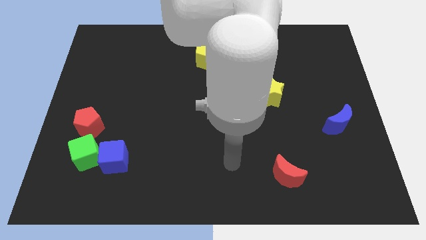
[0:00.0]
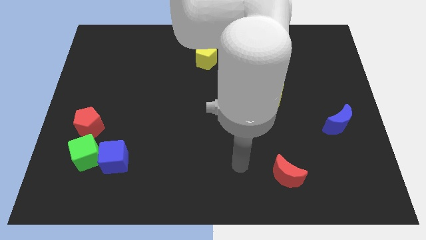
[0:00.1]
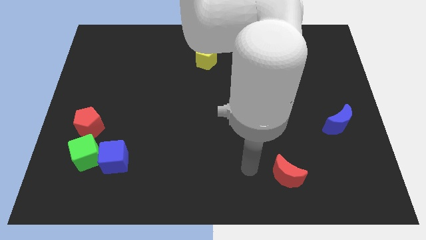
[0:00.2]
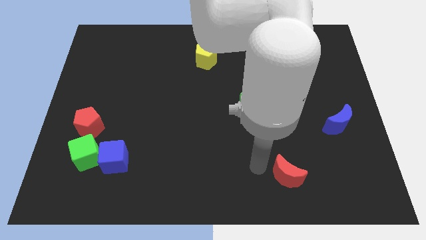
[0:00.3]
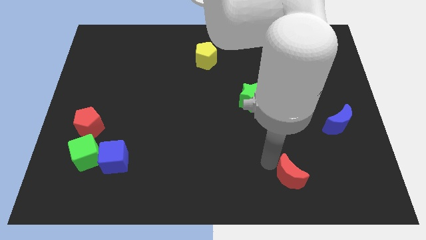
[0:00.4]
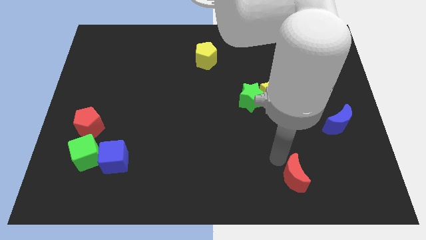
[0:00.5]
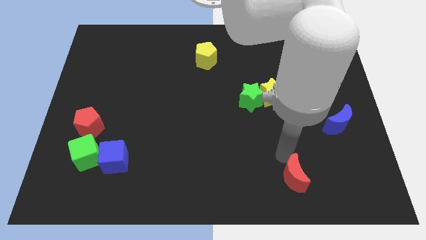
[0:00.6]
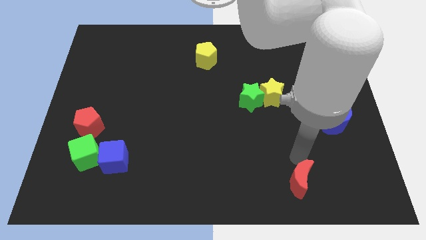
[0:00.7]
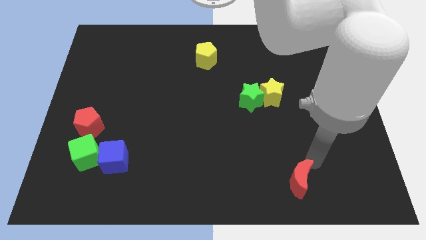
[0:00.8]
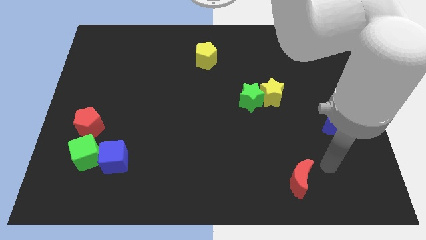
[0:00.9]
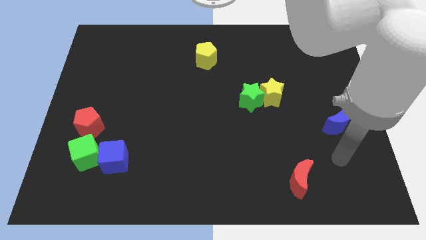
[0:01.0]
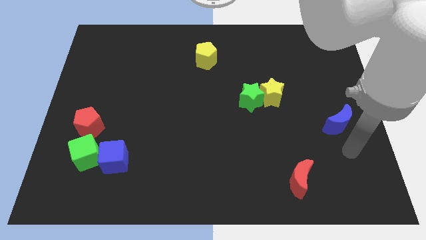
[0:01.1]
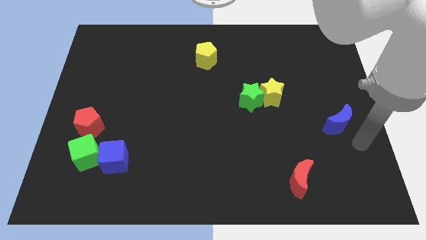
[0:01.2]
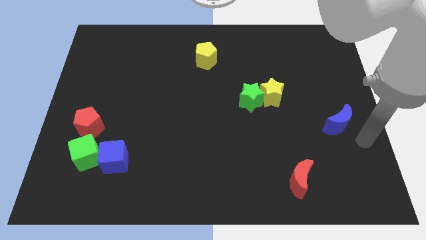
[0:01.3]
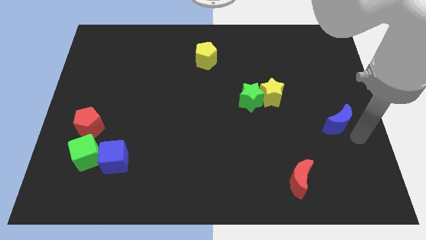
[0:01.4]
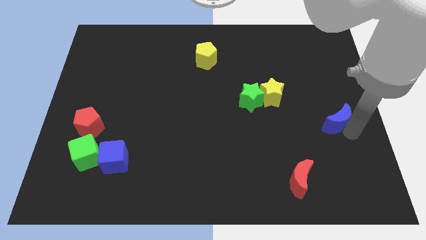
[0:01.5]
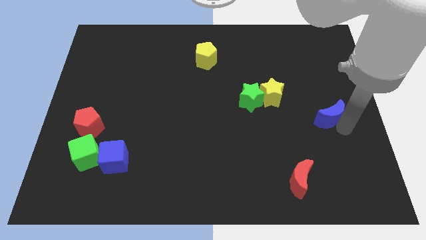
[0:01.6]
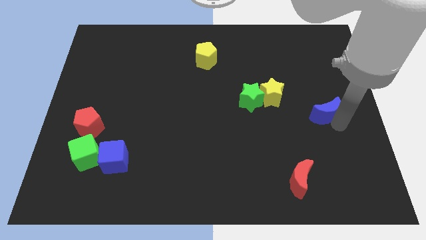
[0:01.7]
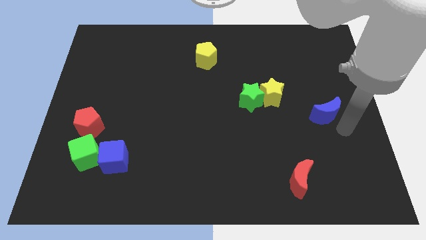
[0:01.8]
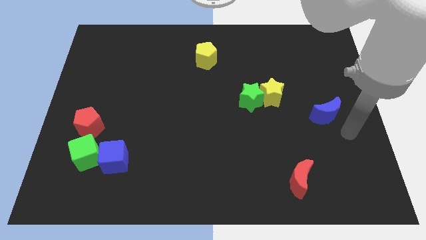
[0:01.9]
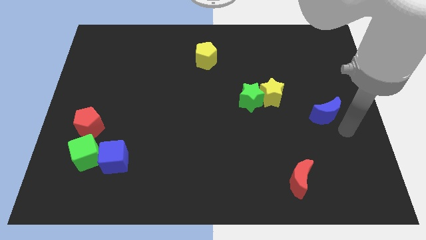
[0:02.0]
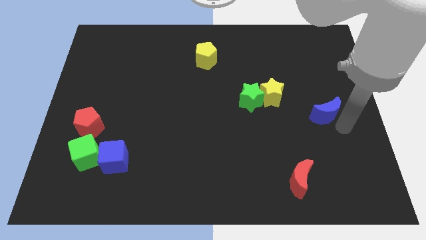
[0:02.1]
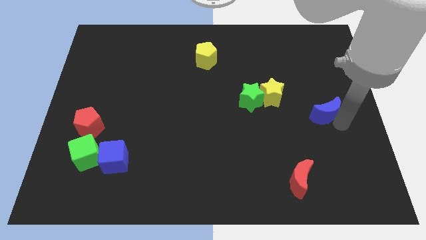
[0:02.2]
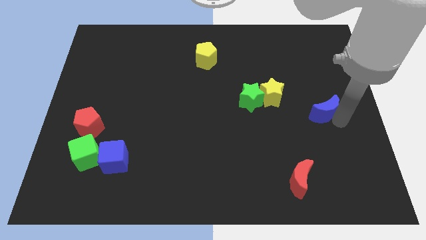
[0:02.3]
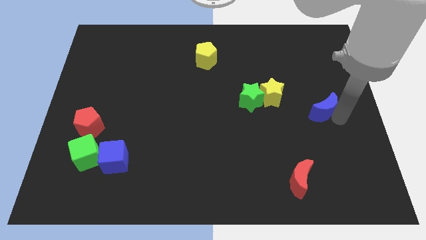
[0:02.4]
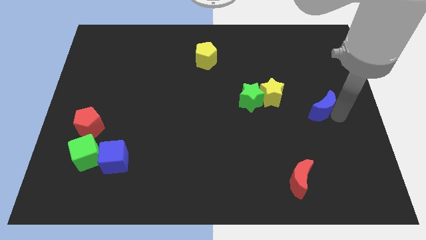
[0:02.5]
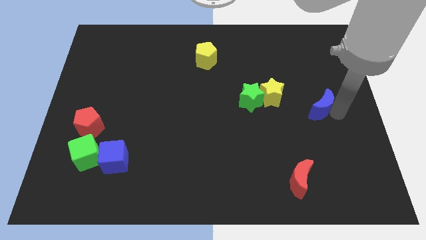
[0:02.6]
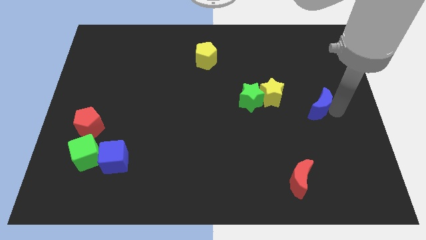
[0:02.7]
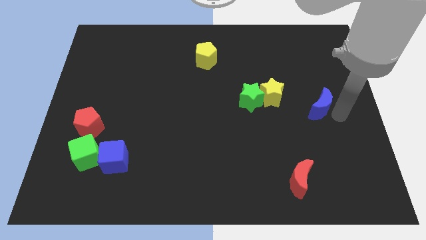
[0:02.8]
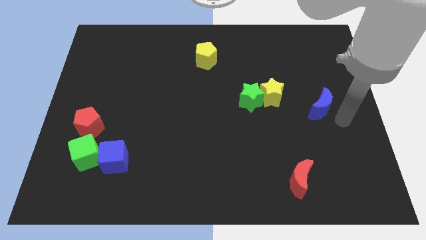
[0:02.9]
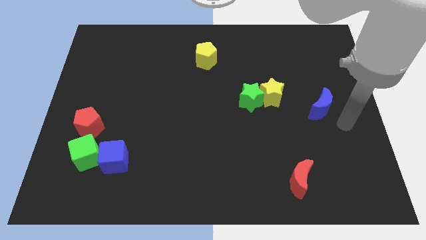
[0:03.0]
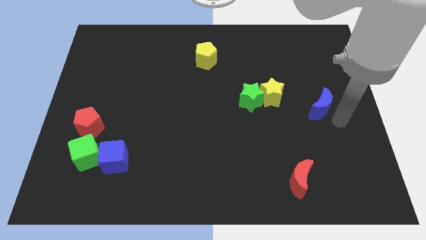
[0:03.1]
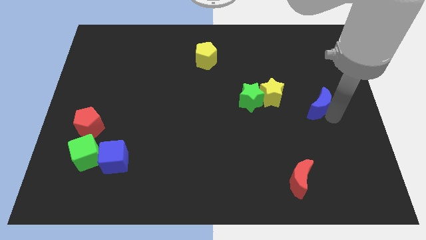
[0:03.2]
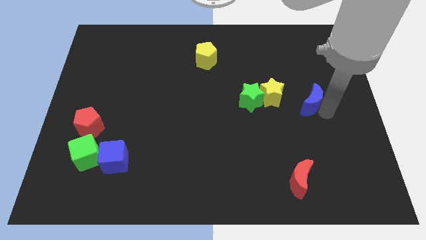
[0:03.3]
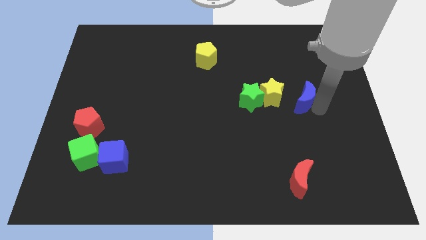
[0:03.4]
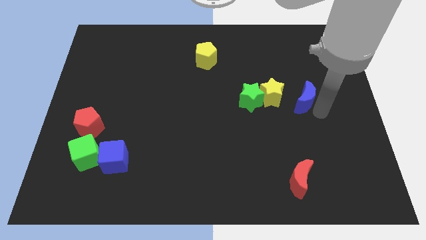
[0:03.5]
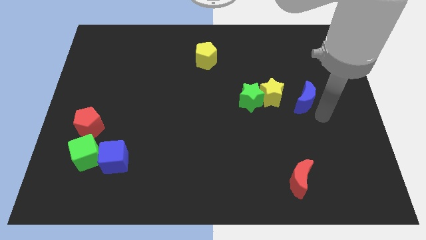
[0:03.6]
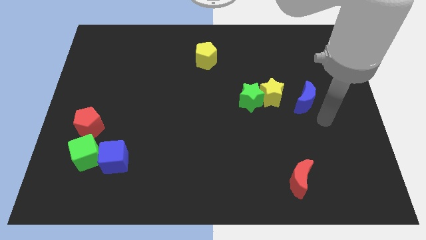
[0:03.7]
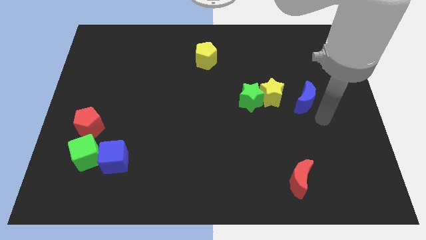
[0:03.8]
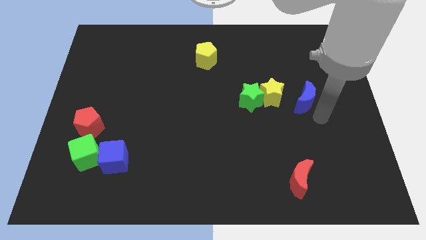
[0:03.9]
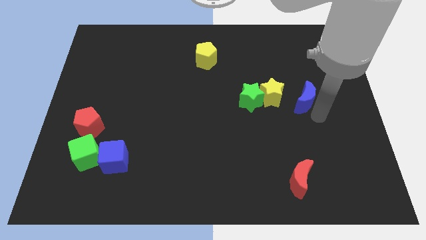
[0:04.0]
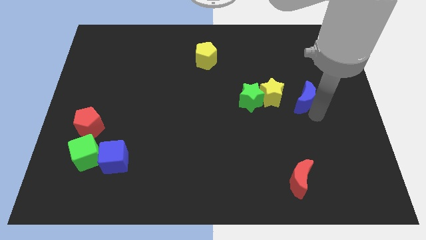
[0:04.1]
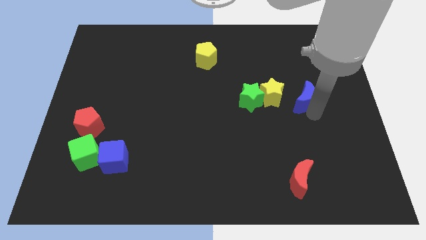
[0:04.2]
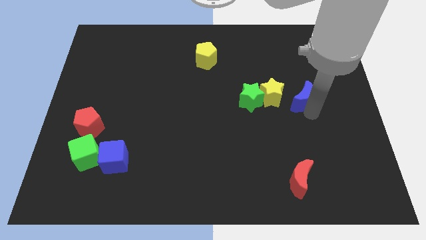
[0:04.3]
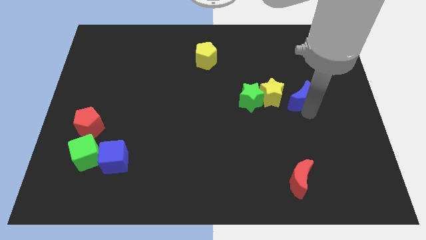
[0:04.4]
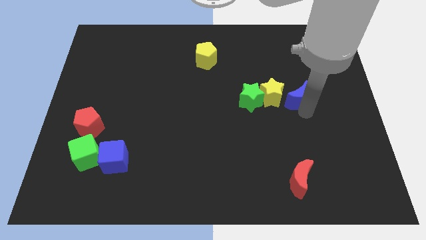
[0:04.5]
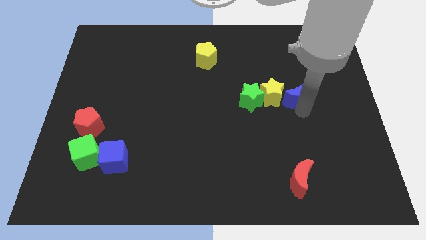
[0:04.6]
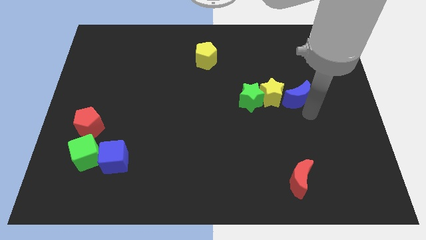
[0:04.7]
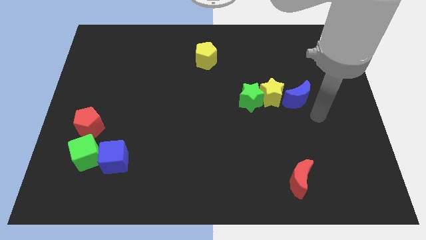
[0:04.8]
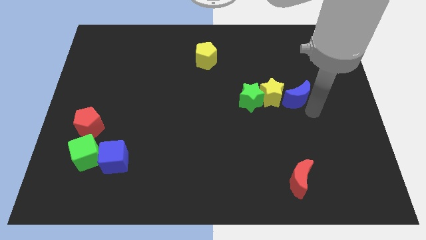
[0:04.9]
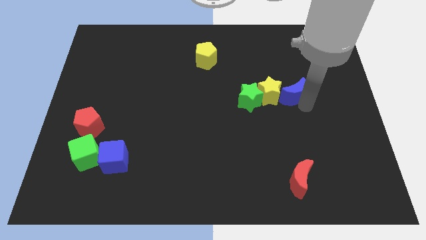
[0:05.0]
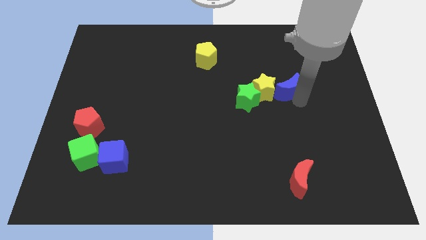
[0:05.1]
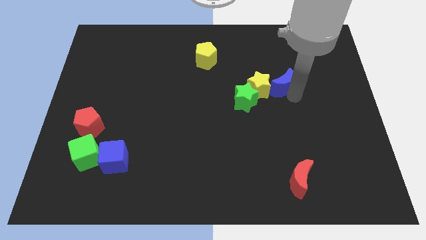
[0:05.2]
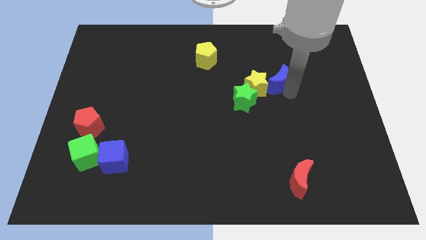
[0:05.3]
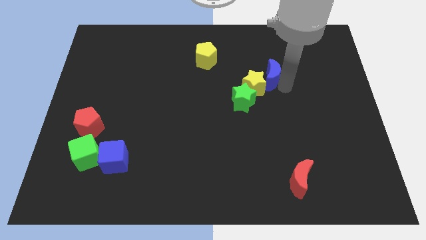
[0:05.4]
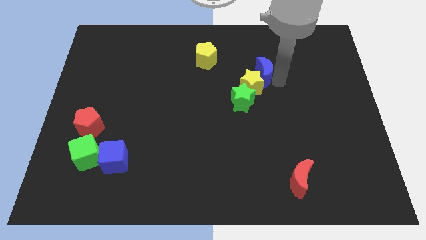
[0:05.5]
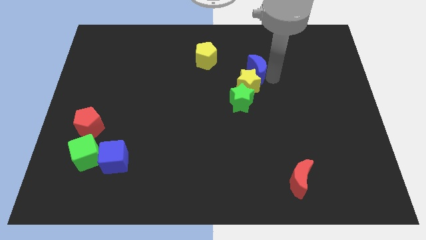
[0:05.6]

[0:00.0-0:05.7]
move the blue moon to the top side of the green star

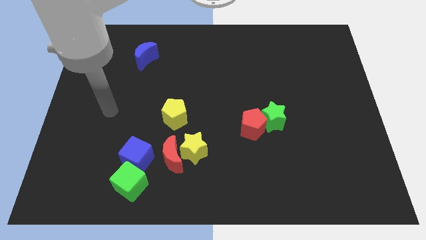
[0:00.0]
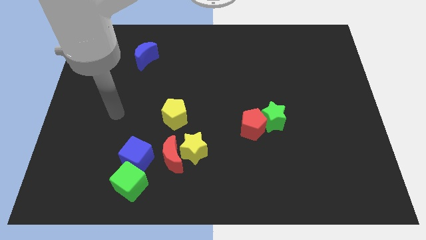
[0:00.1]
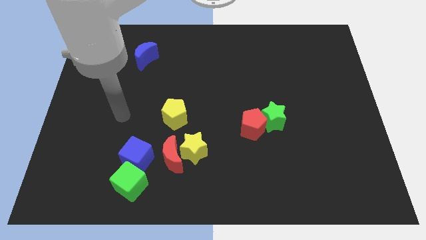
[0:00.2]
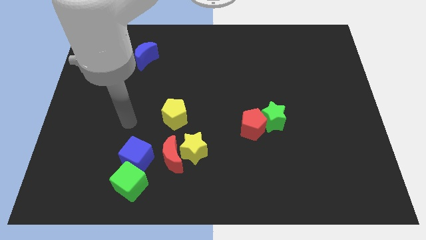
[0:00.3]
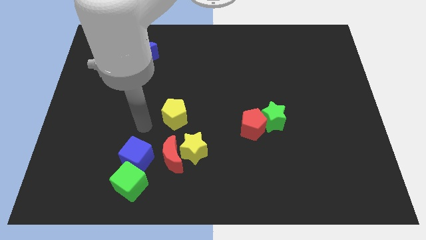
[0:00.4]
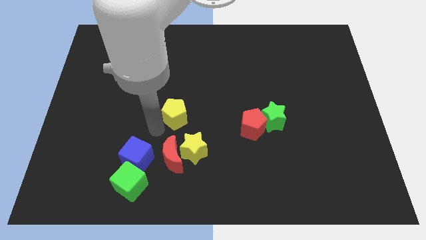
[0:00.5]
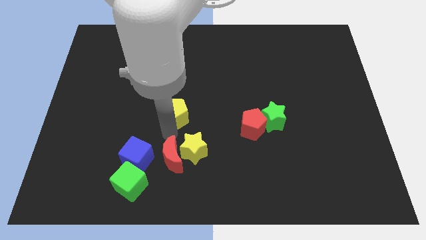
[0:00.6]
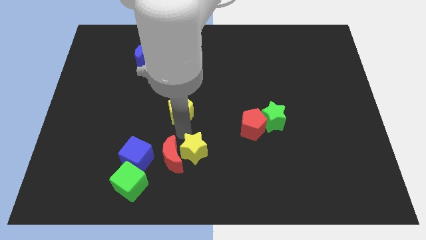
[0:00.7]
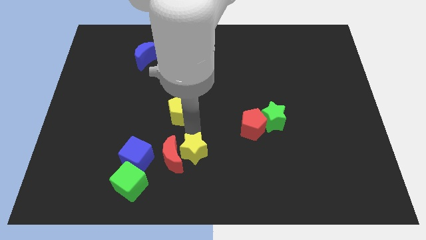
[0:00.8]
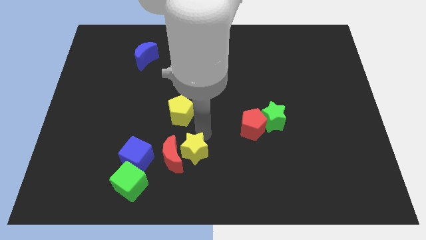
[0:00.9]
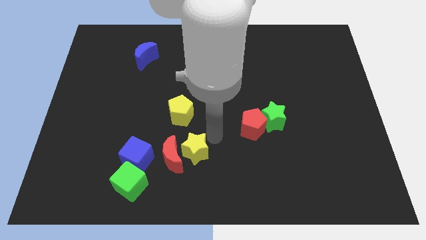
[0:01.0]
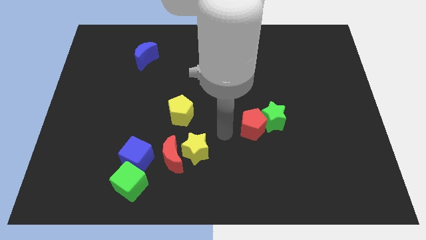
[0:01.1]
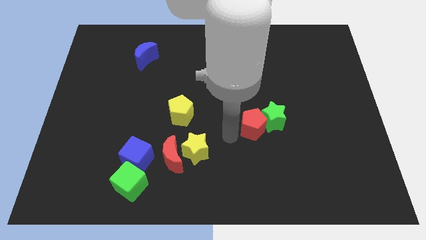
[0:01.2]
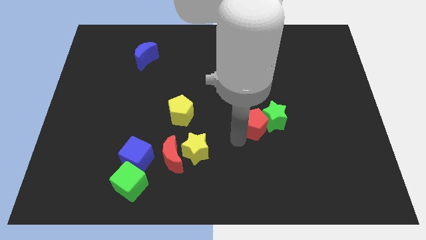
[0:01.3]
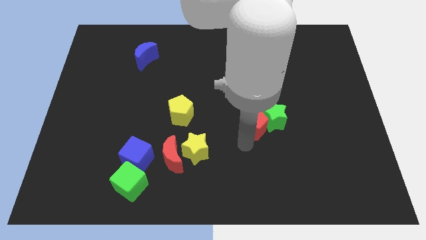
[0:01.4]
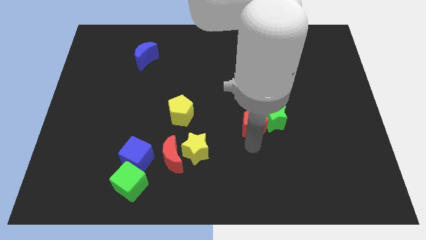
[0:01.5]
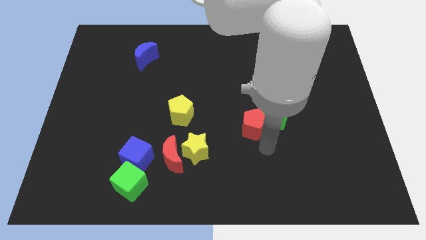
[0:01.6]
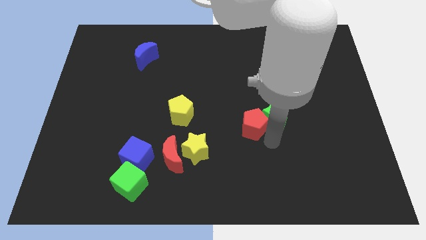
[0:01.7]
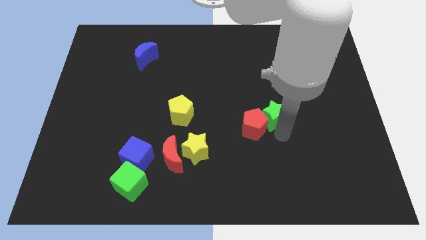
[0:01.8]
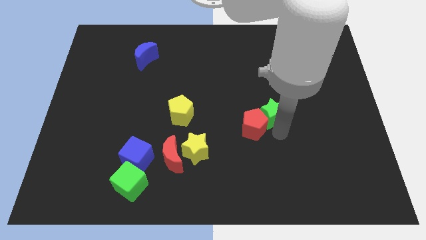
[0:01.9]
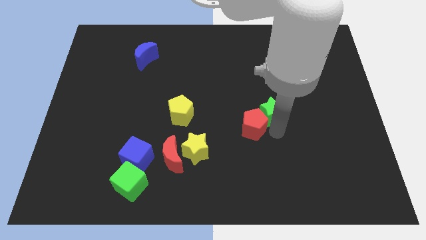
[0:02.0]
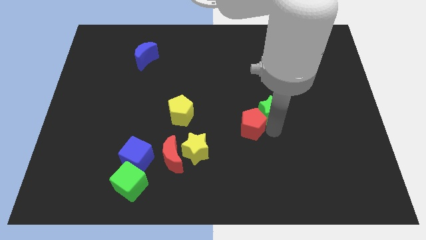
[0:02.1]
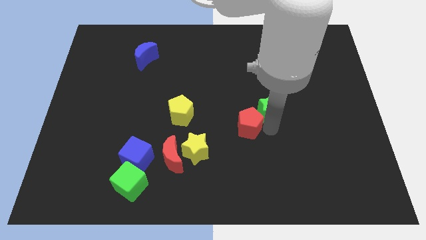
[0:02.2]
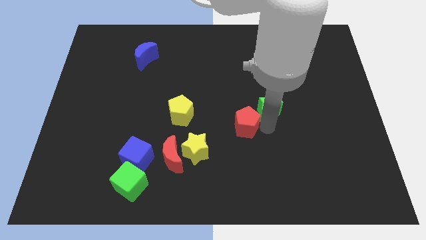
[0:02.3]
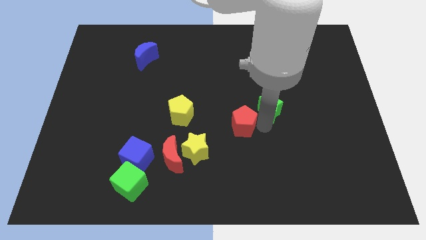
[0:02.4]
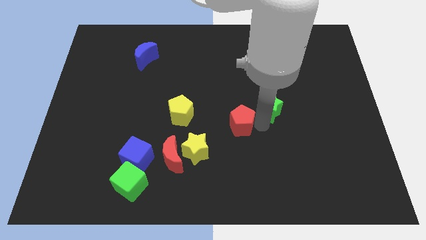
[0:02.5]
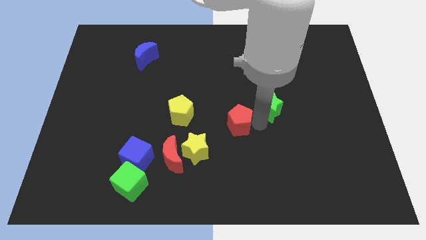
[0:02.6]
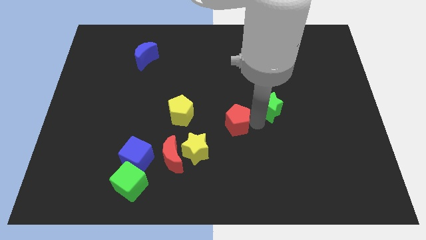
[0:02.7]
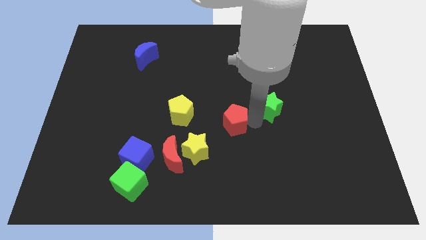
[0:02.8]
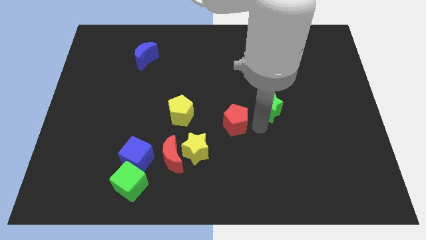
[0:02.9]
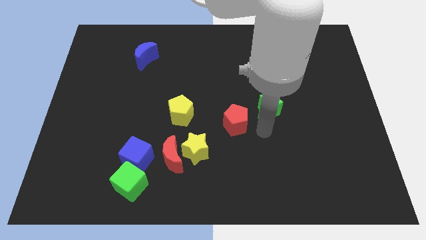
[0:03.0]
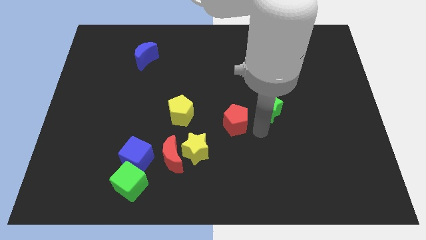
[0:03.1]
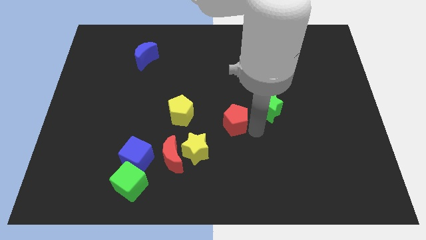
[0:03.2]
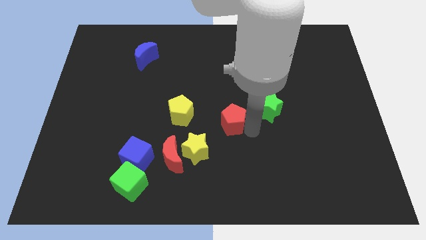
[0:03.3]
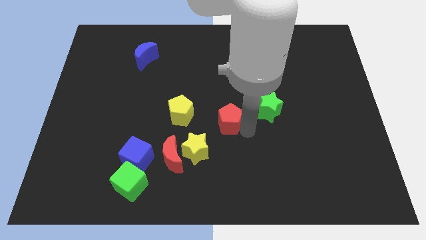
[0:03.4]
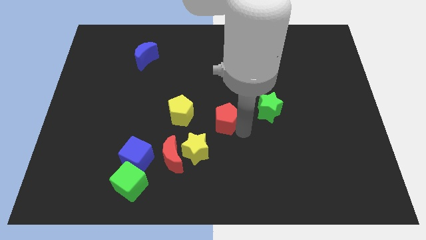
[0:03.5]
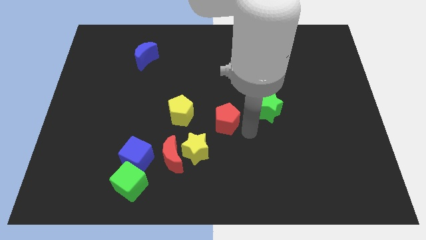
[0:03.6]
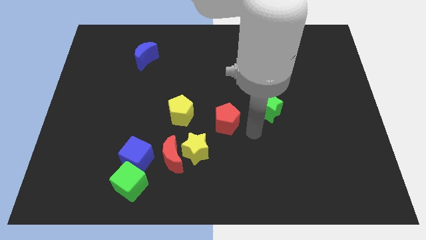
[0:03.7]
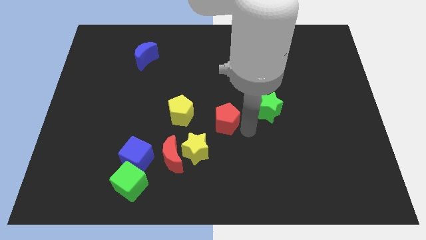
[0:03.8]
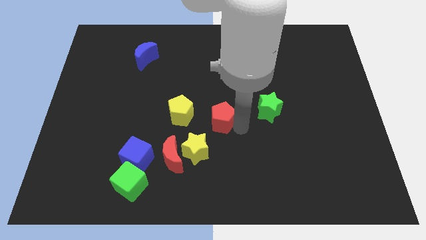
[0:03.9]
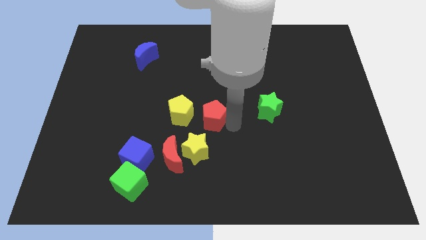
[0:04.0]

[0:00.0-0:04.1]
slide the red pentagon to the top of the yellow star
